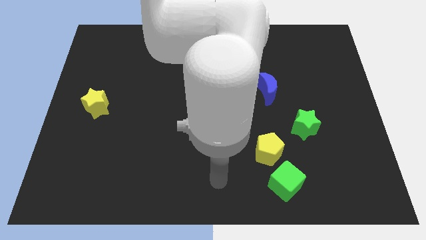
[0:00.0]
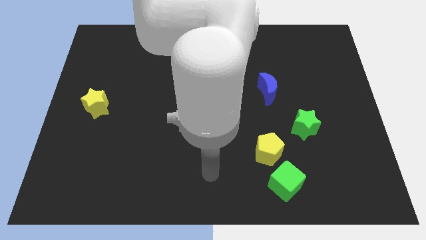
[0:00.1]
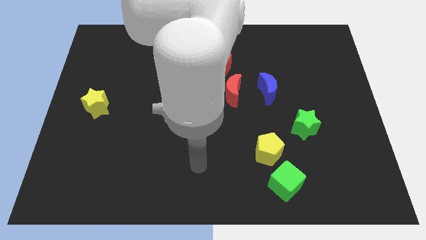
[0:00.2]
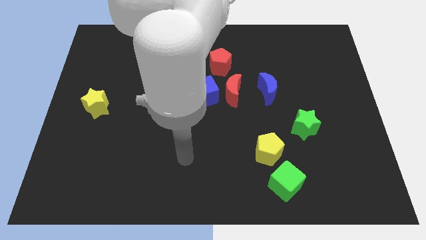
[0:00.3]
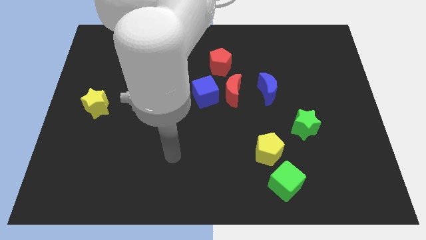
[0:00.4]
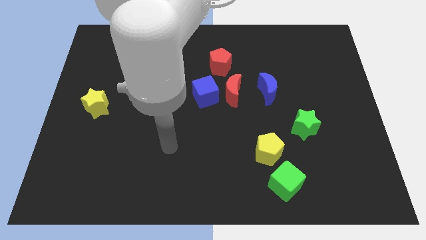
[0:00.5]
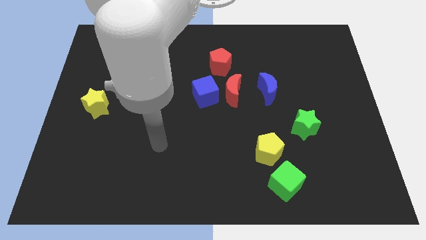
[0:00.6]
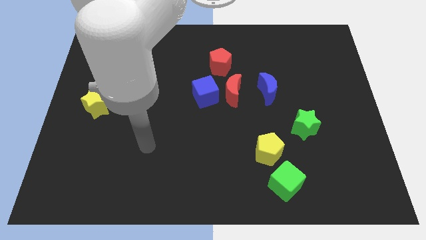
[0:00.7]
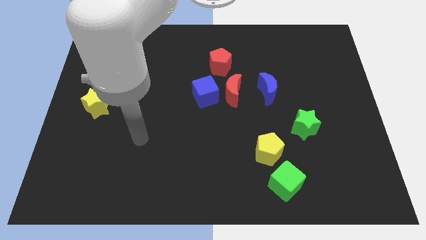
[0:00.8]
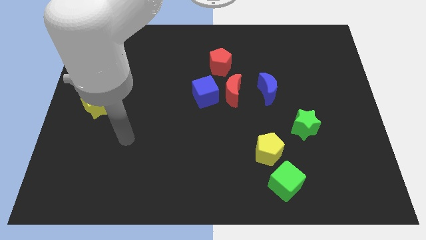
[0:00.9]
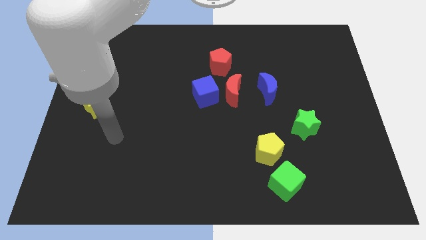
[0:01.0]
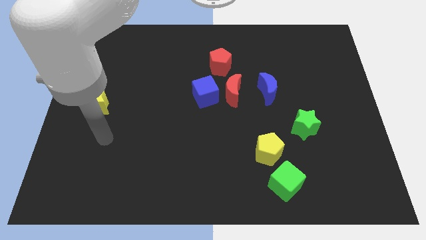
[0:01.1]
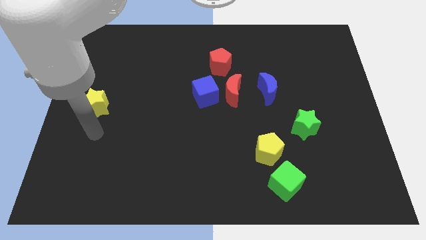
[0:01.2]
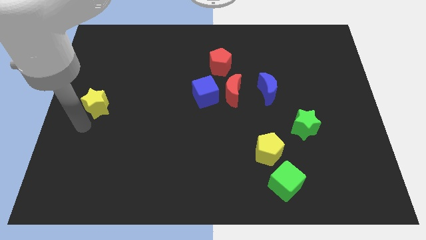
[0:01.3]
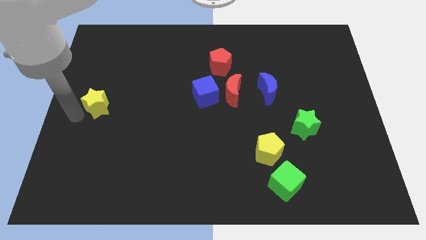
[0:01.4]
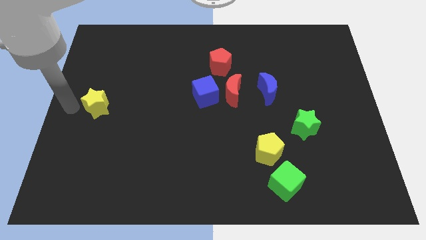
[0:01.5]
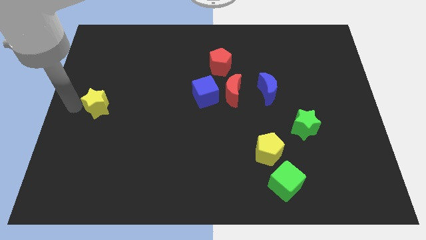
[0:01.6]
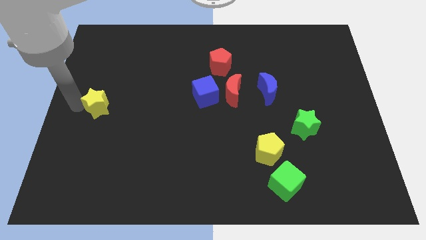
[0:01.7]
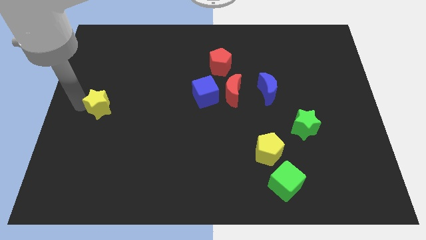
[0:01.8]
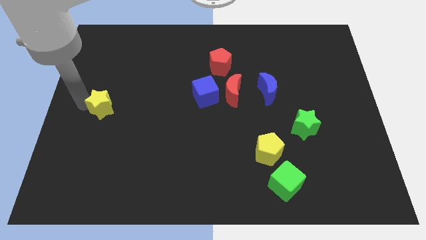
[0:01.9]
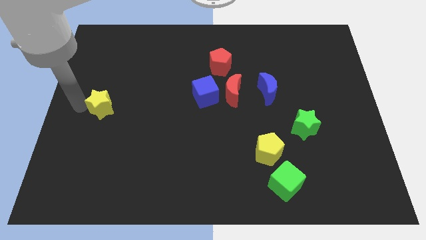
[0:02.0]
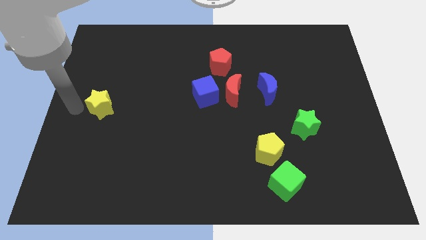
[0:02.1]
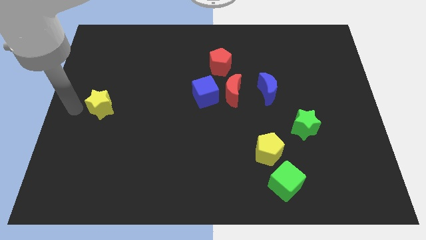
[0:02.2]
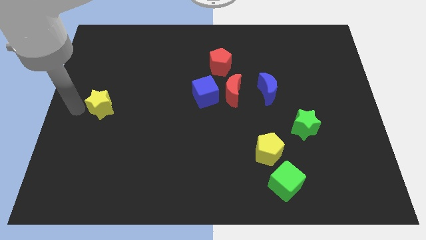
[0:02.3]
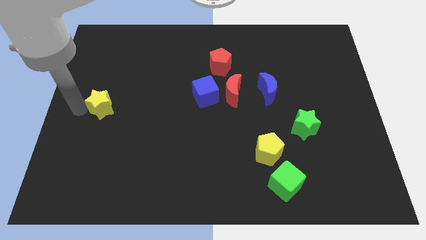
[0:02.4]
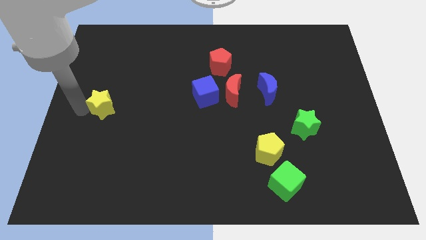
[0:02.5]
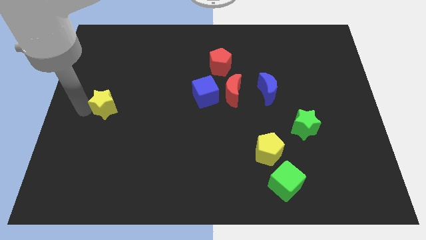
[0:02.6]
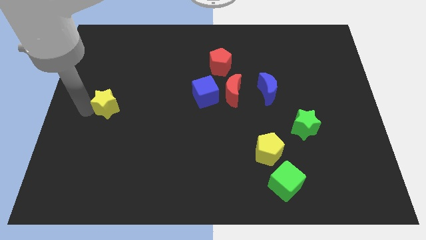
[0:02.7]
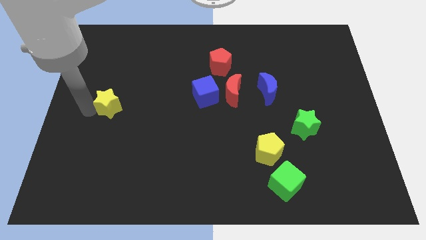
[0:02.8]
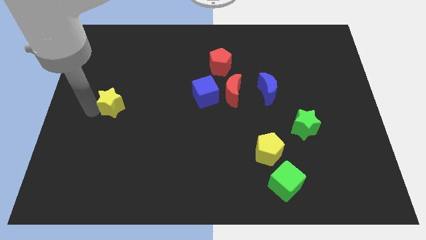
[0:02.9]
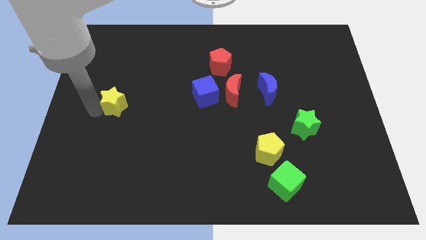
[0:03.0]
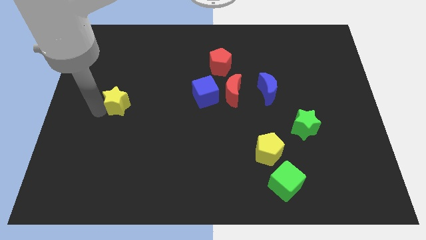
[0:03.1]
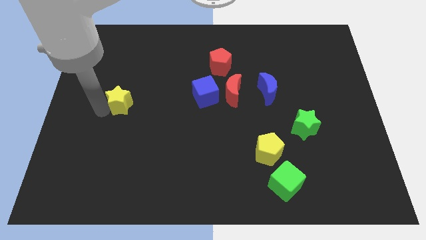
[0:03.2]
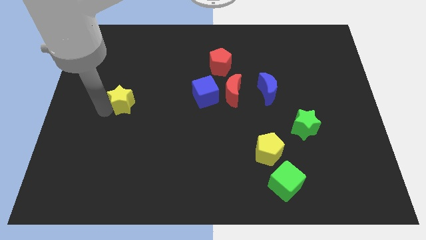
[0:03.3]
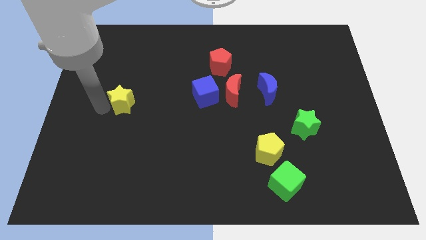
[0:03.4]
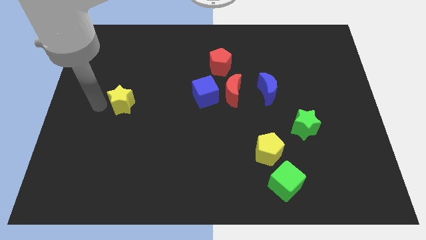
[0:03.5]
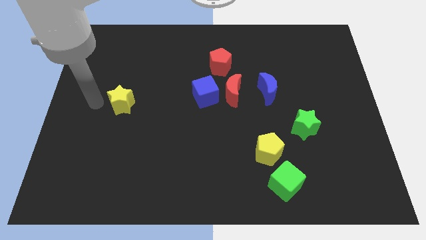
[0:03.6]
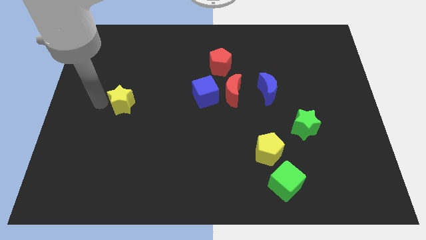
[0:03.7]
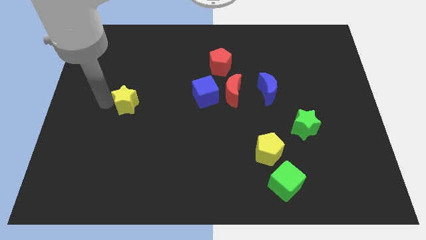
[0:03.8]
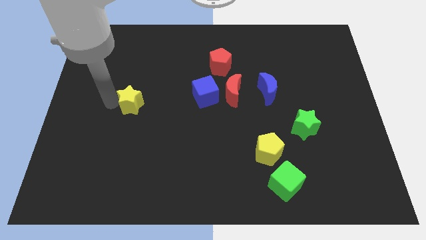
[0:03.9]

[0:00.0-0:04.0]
slightly move the yellow star right

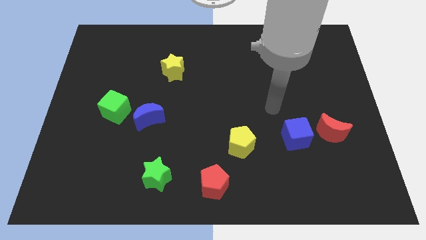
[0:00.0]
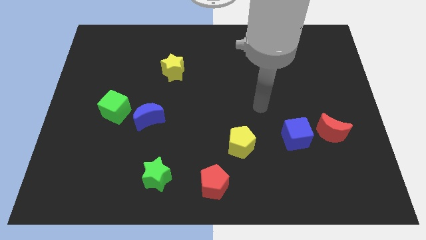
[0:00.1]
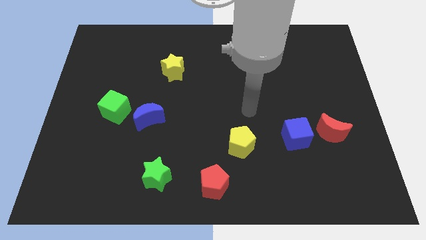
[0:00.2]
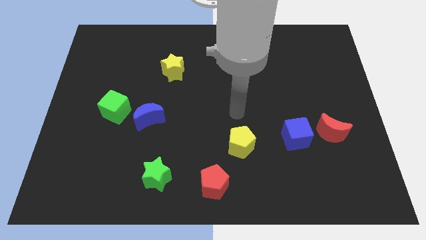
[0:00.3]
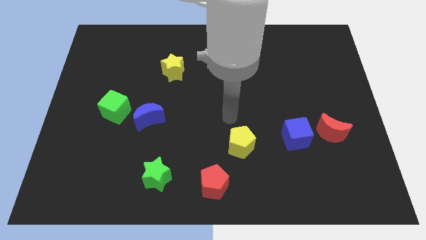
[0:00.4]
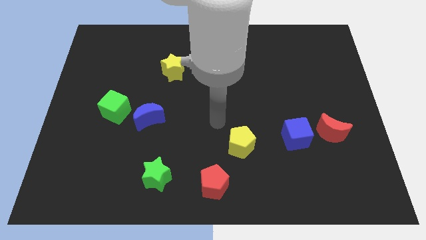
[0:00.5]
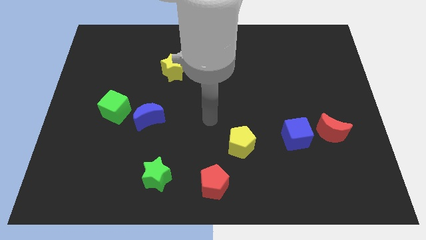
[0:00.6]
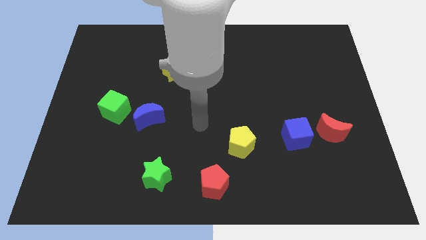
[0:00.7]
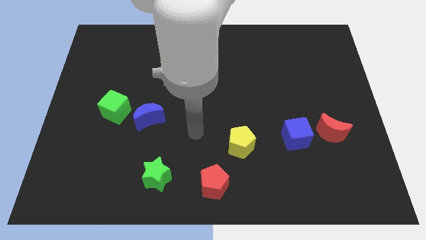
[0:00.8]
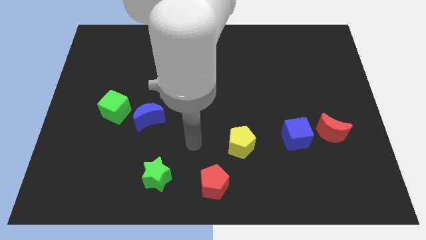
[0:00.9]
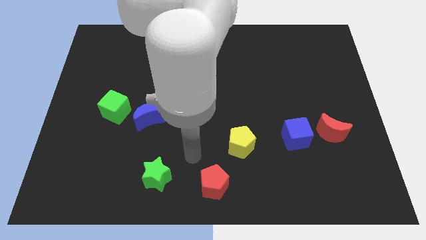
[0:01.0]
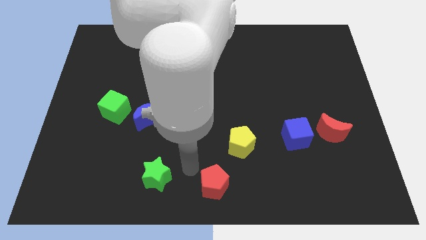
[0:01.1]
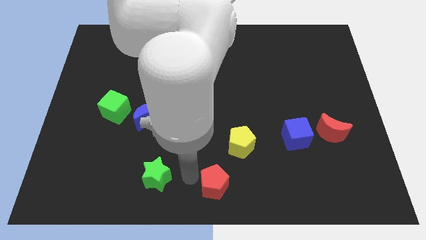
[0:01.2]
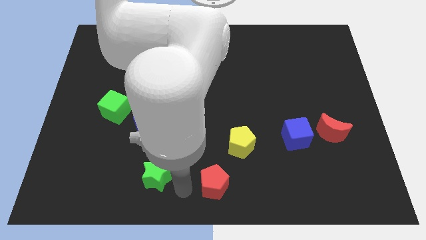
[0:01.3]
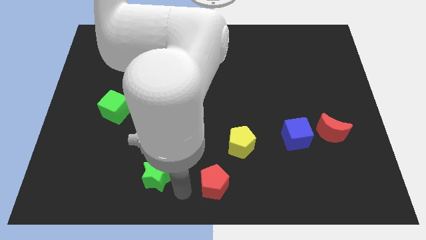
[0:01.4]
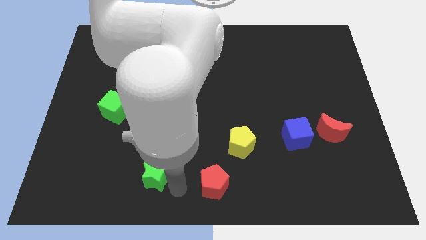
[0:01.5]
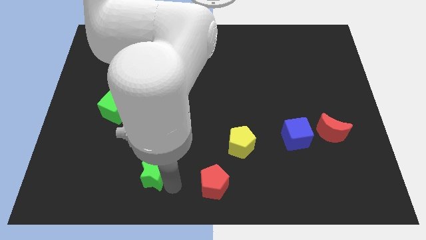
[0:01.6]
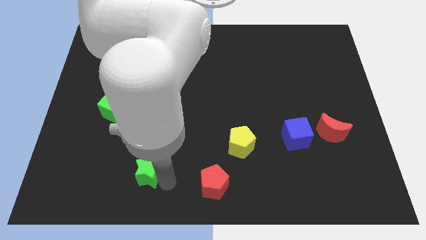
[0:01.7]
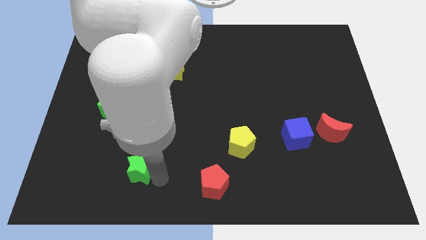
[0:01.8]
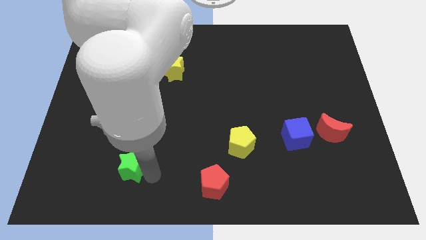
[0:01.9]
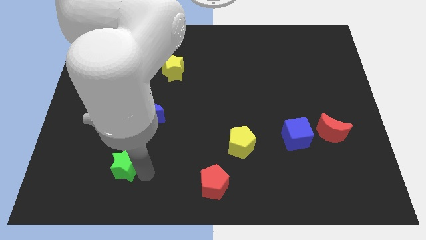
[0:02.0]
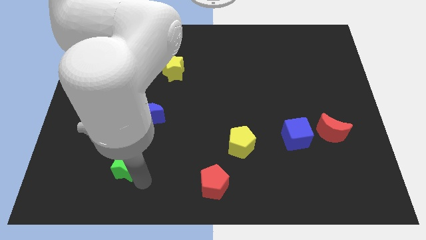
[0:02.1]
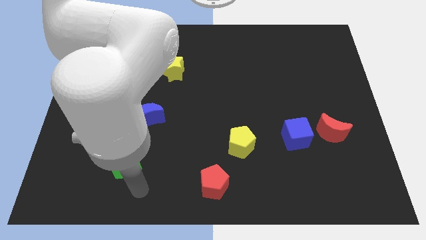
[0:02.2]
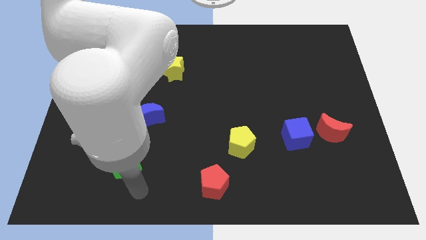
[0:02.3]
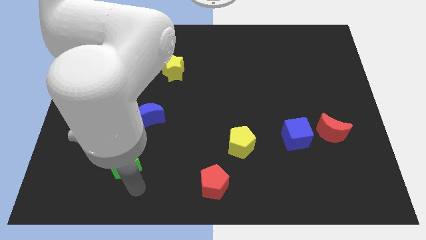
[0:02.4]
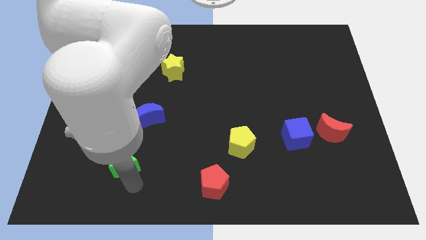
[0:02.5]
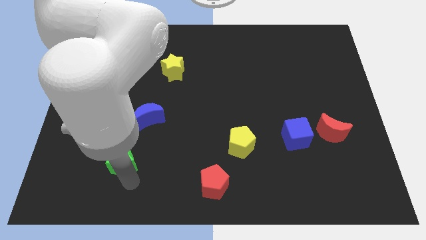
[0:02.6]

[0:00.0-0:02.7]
push the green star upwards and left diagonally a little bit

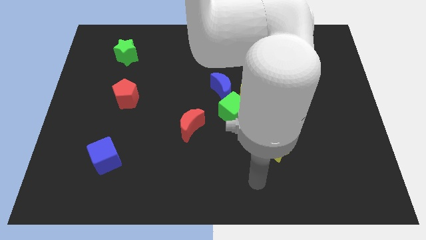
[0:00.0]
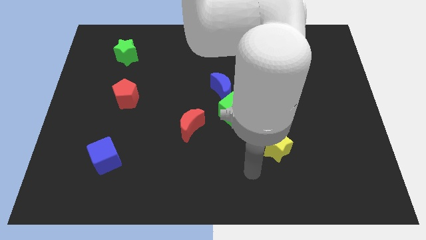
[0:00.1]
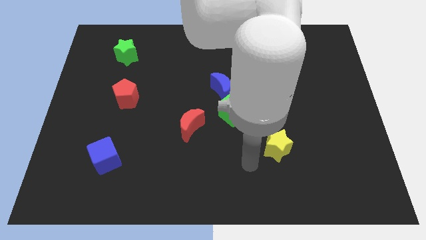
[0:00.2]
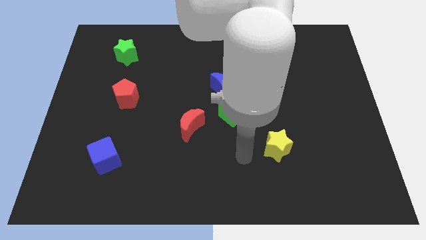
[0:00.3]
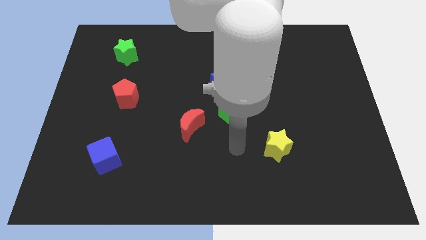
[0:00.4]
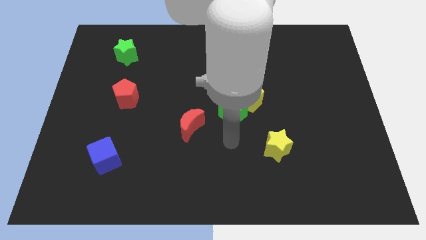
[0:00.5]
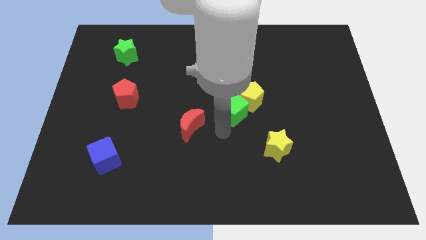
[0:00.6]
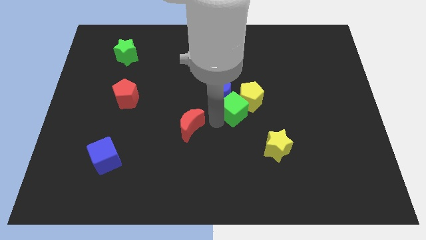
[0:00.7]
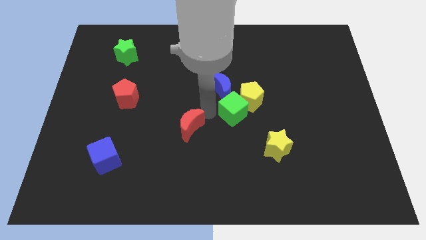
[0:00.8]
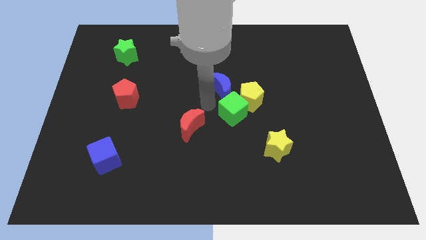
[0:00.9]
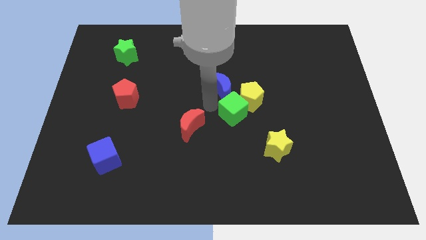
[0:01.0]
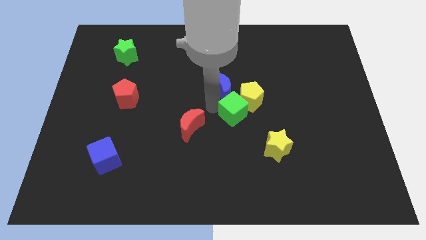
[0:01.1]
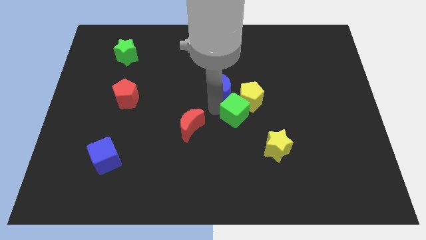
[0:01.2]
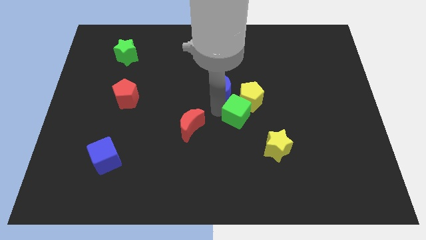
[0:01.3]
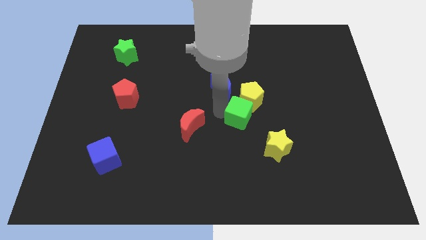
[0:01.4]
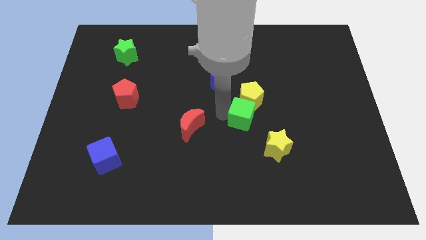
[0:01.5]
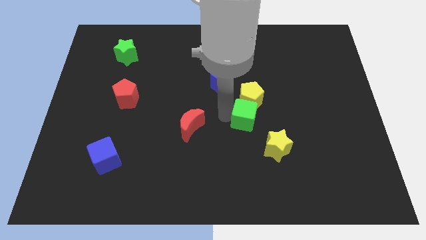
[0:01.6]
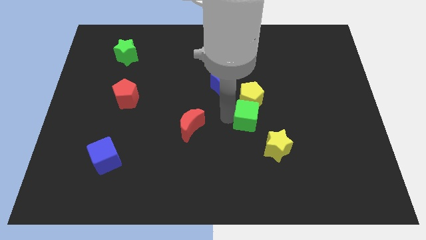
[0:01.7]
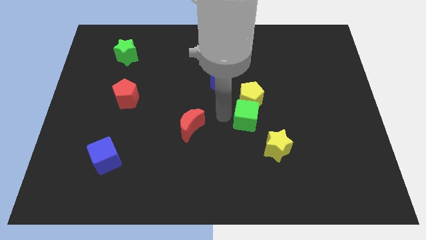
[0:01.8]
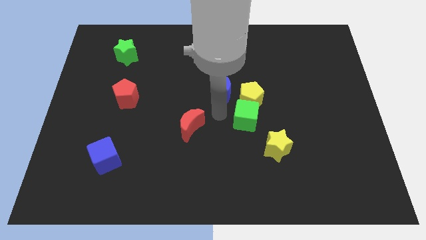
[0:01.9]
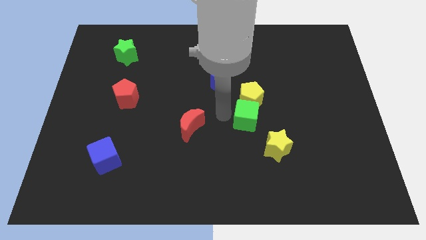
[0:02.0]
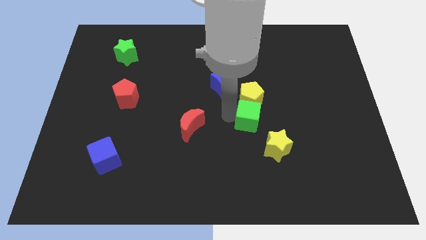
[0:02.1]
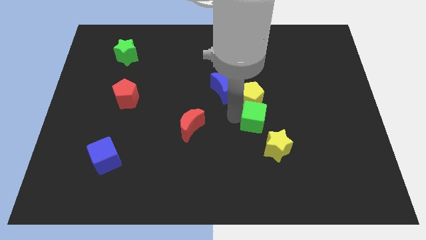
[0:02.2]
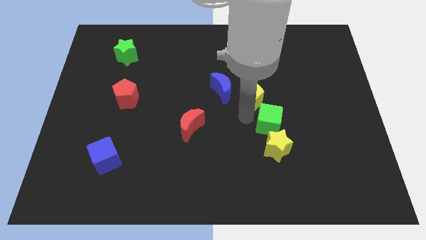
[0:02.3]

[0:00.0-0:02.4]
push the green cube diagonally downwards and to the right a bit
